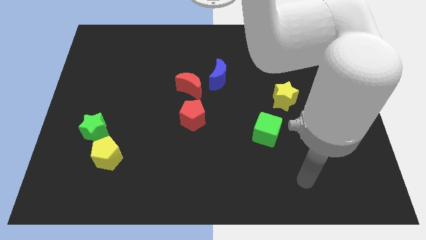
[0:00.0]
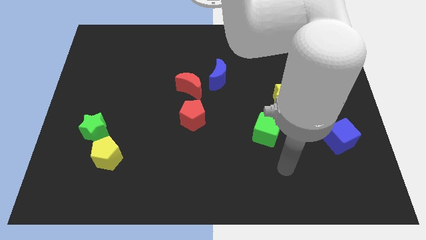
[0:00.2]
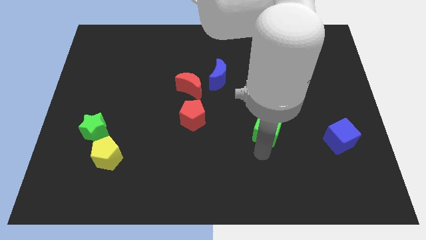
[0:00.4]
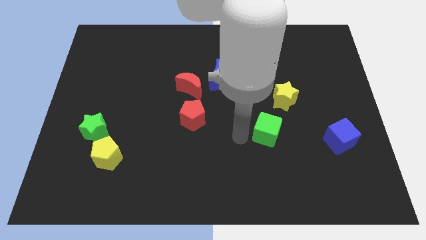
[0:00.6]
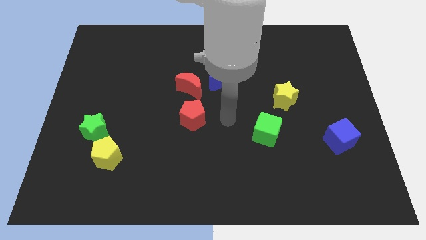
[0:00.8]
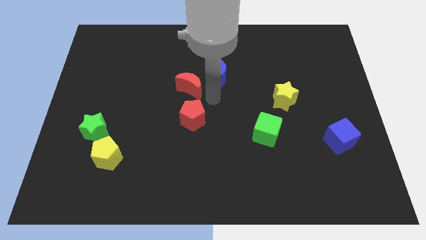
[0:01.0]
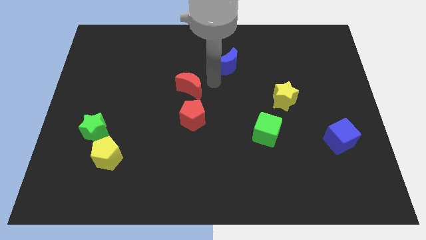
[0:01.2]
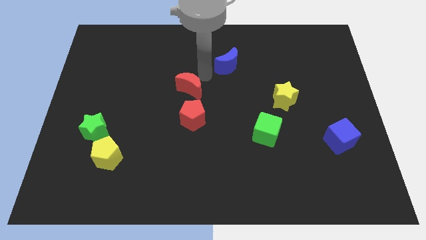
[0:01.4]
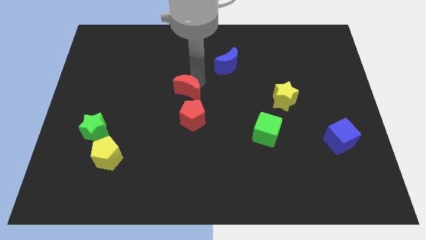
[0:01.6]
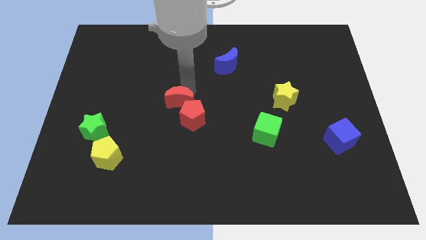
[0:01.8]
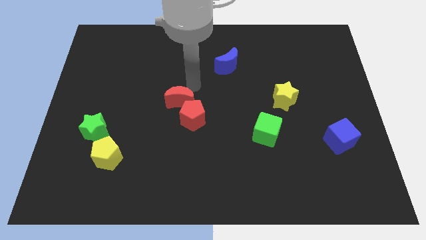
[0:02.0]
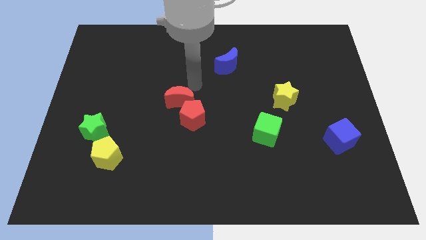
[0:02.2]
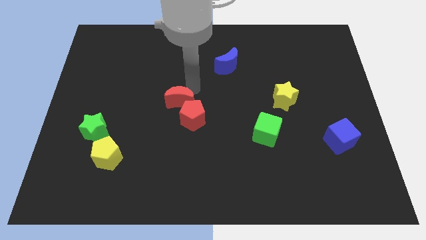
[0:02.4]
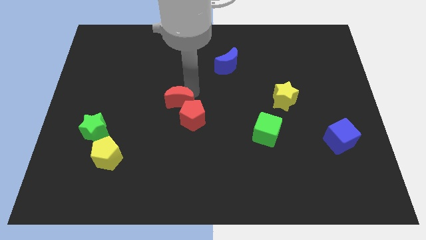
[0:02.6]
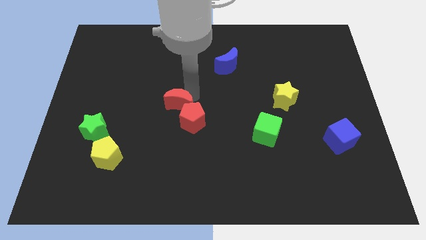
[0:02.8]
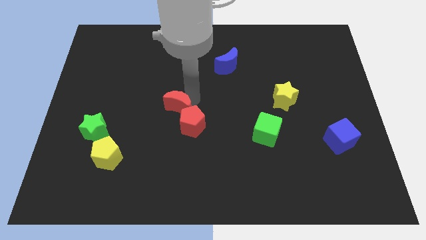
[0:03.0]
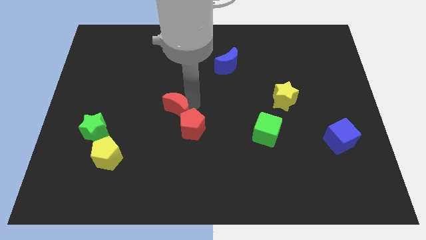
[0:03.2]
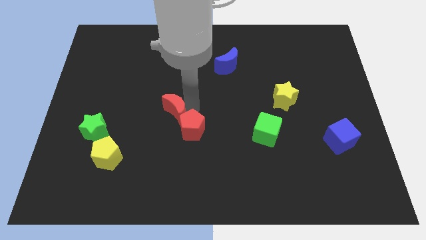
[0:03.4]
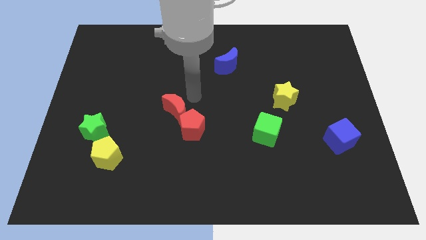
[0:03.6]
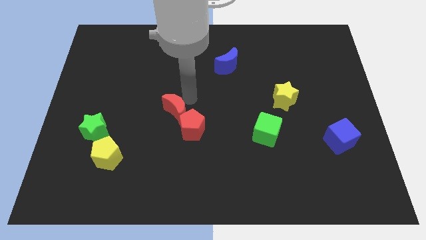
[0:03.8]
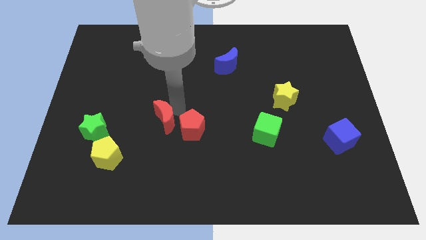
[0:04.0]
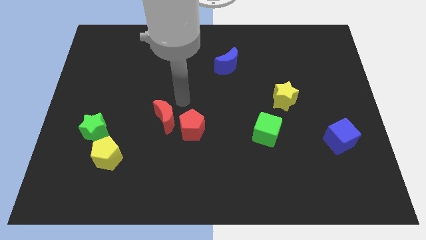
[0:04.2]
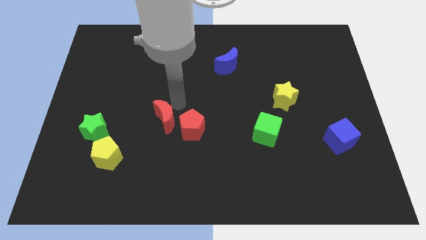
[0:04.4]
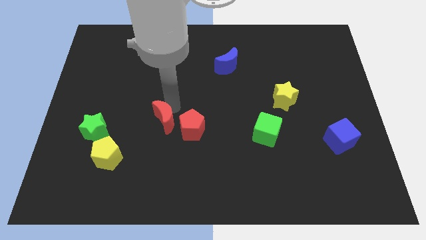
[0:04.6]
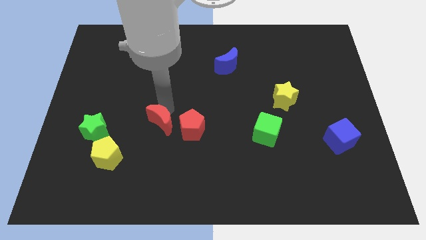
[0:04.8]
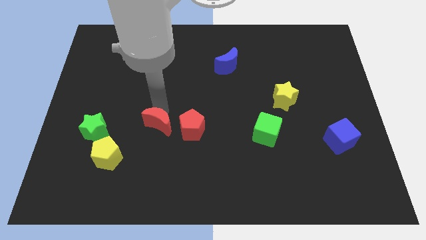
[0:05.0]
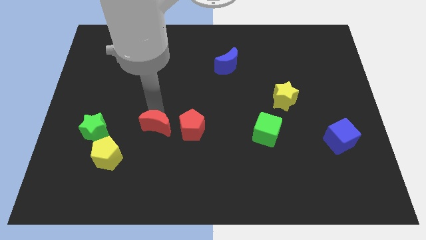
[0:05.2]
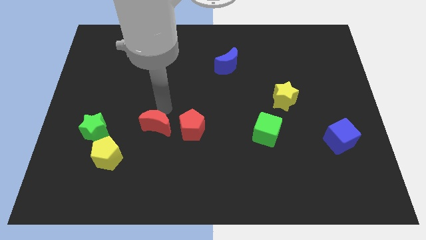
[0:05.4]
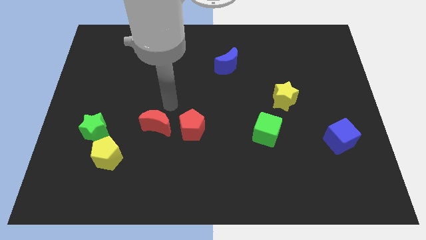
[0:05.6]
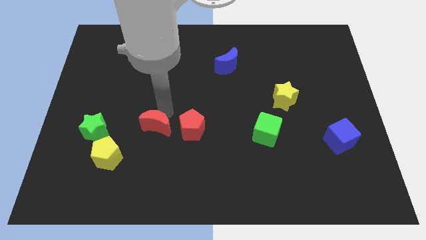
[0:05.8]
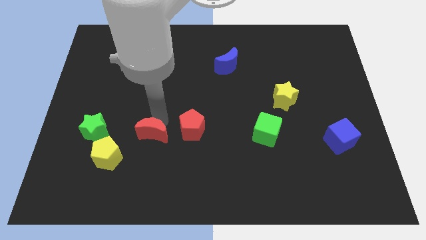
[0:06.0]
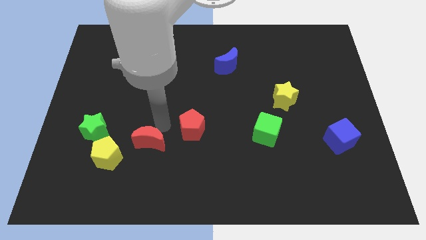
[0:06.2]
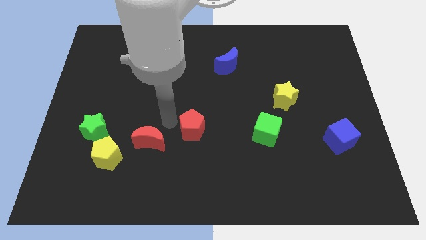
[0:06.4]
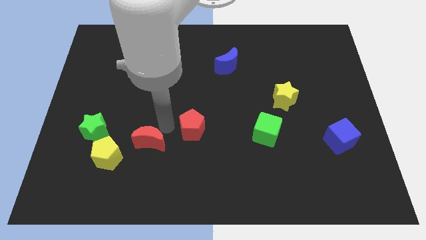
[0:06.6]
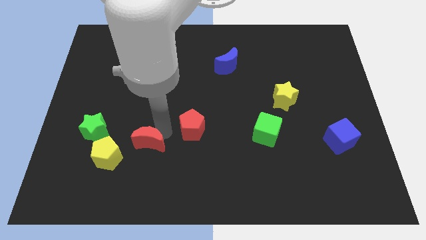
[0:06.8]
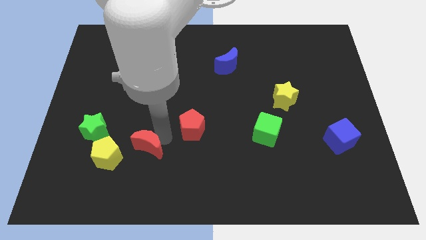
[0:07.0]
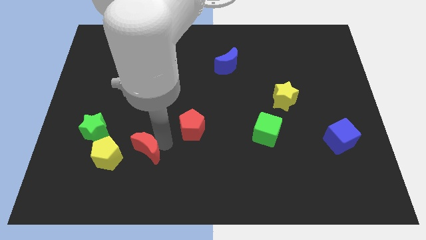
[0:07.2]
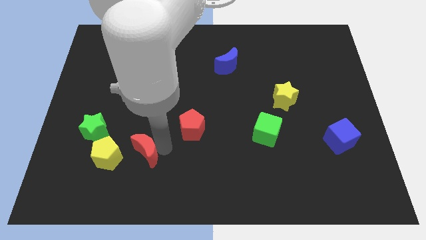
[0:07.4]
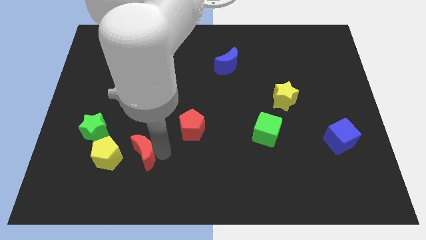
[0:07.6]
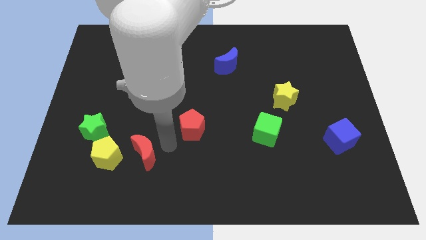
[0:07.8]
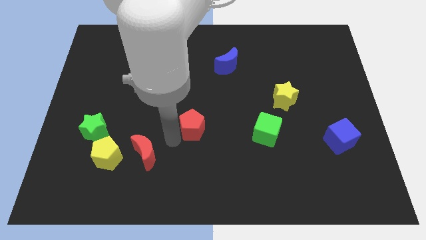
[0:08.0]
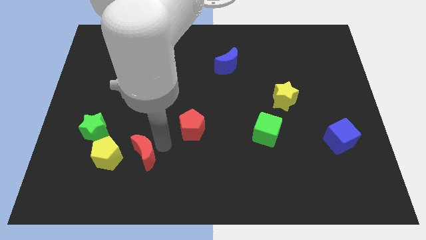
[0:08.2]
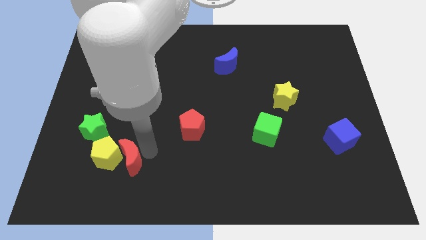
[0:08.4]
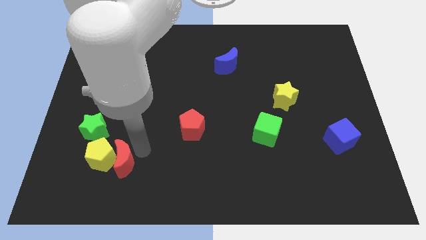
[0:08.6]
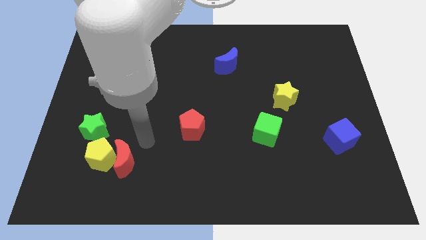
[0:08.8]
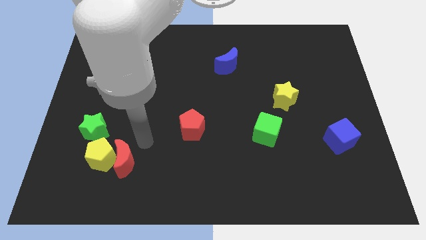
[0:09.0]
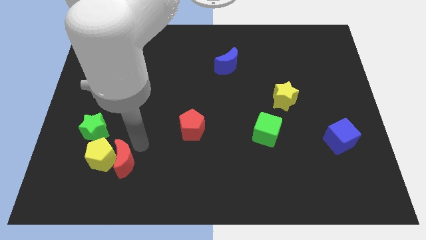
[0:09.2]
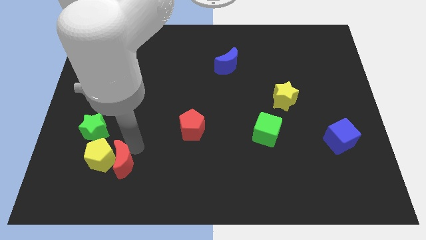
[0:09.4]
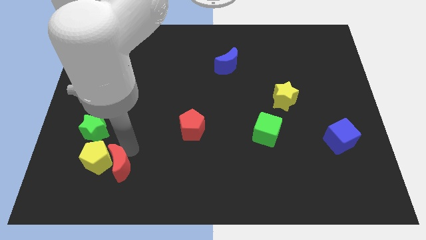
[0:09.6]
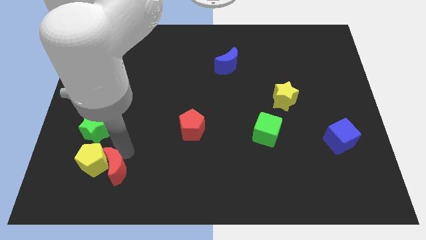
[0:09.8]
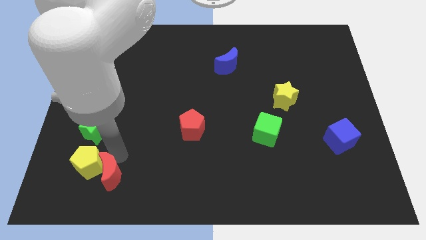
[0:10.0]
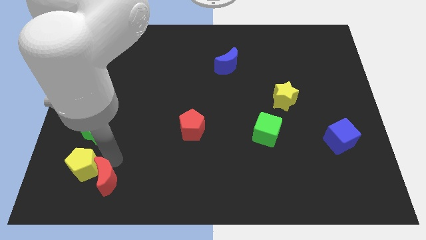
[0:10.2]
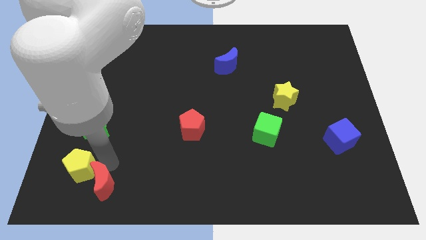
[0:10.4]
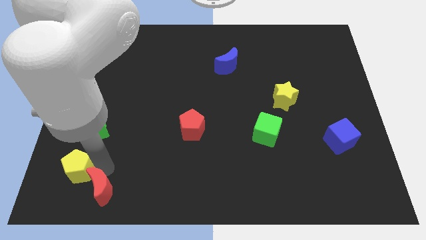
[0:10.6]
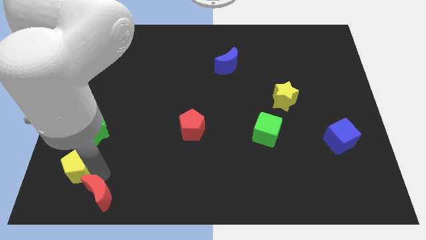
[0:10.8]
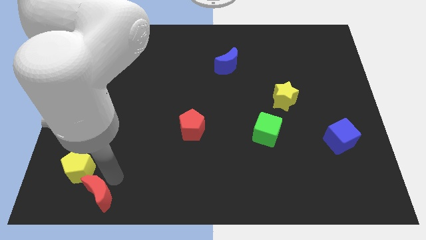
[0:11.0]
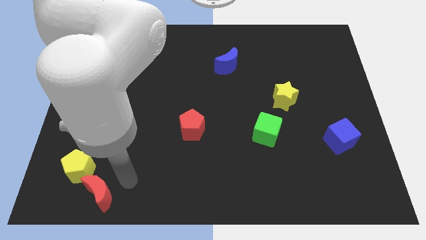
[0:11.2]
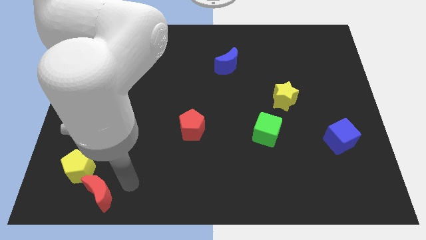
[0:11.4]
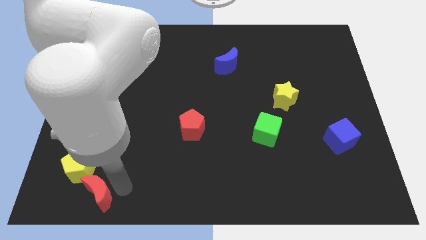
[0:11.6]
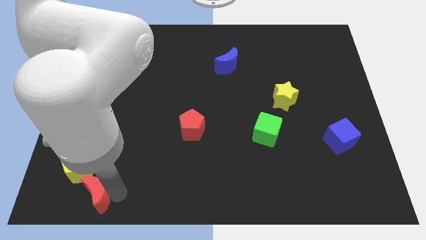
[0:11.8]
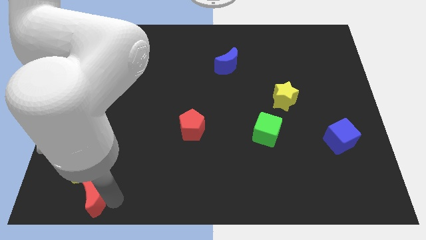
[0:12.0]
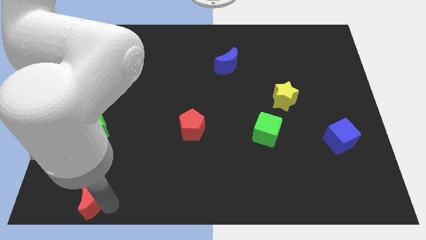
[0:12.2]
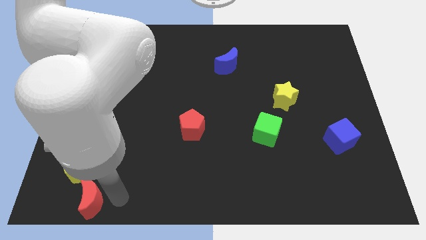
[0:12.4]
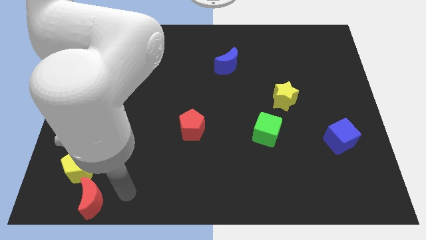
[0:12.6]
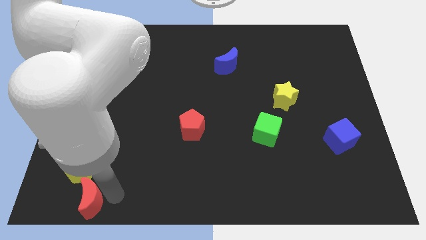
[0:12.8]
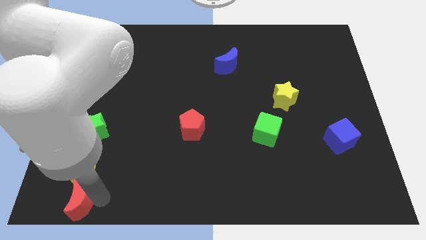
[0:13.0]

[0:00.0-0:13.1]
move the red moon to the bottom left
